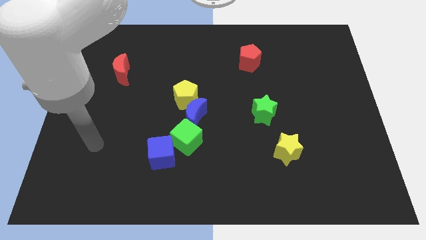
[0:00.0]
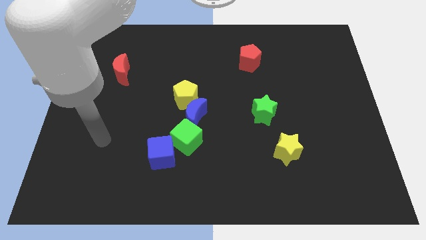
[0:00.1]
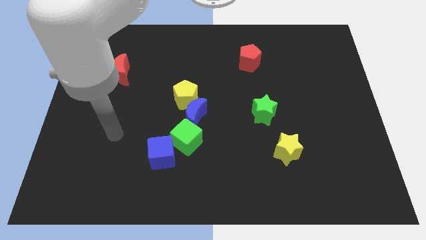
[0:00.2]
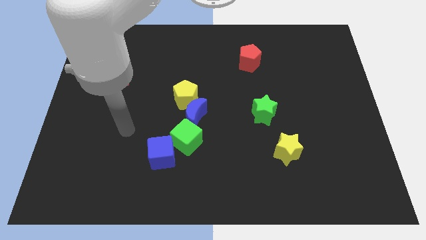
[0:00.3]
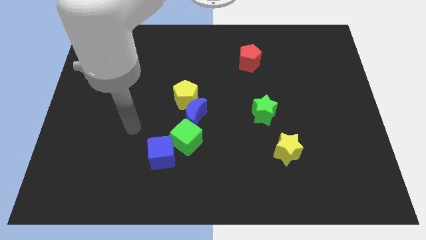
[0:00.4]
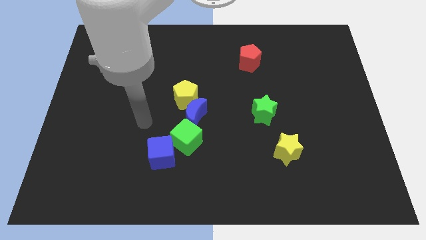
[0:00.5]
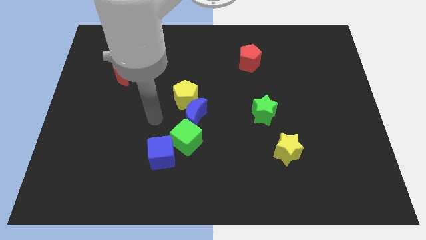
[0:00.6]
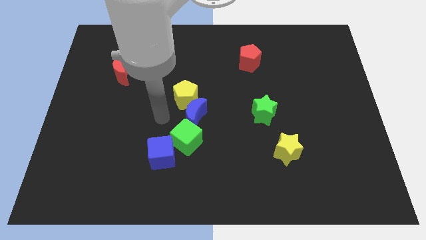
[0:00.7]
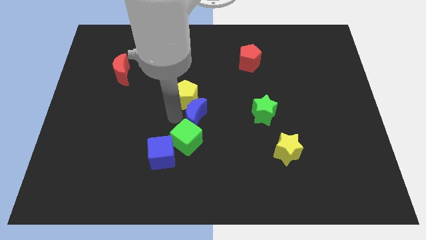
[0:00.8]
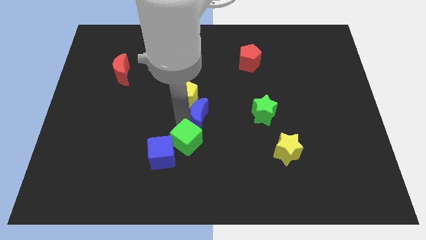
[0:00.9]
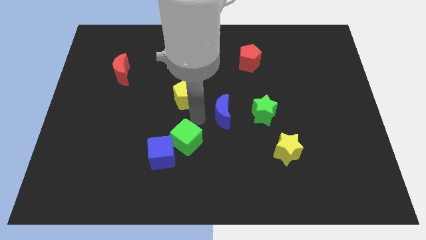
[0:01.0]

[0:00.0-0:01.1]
separate the yellow pentagon from the blue moon

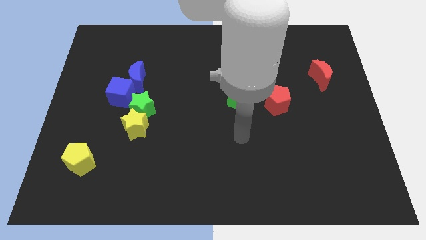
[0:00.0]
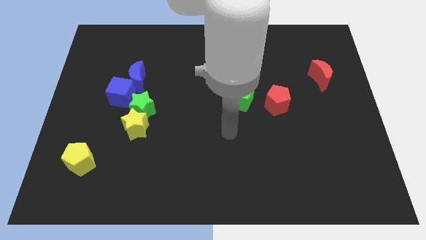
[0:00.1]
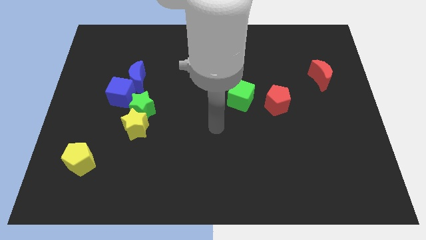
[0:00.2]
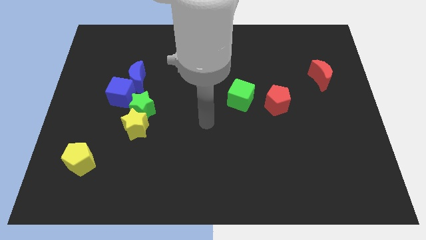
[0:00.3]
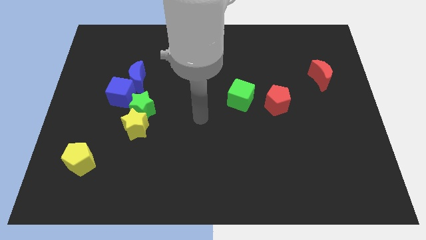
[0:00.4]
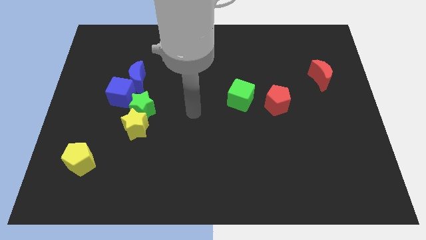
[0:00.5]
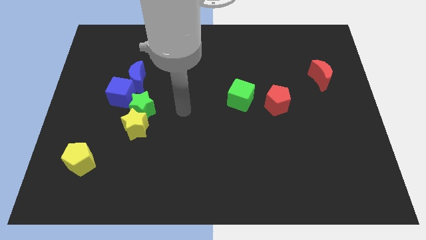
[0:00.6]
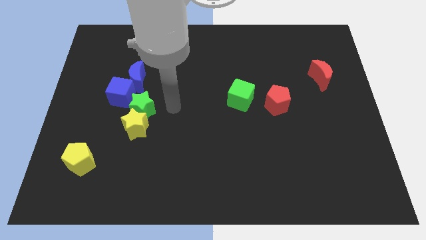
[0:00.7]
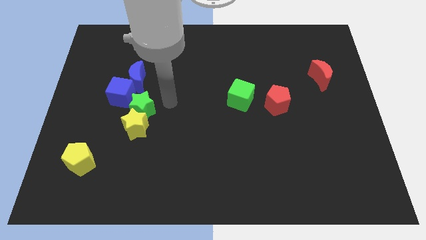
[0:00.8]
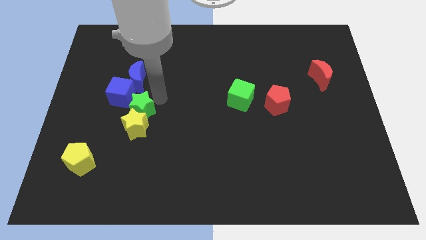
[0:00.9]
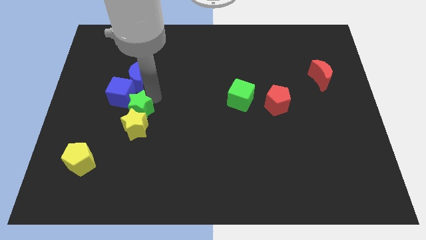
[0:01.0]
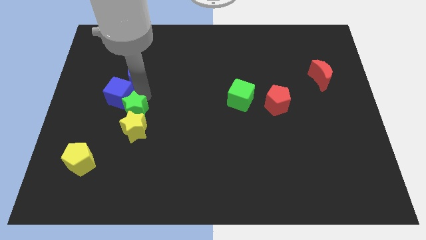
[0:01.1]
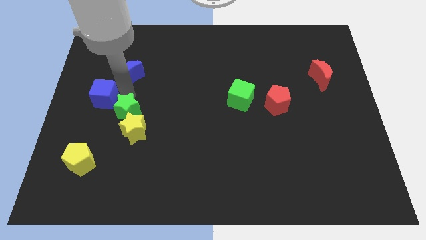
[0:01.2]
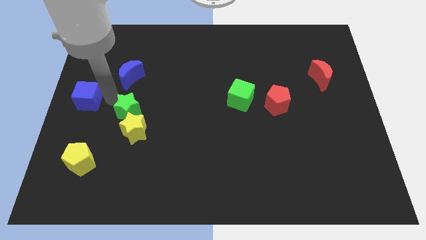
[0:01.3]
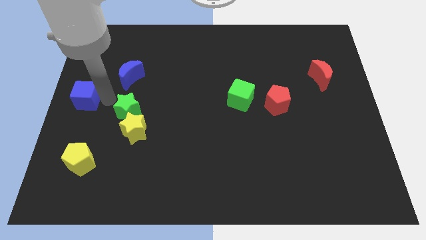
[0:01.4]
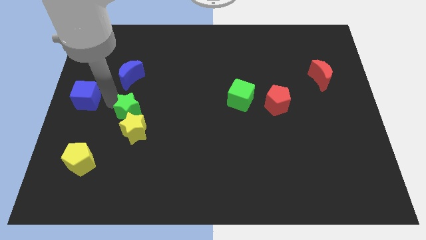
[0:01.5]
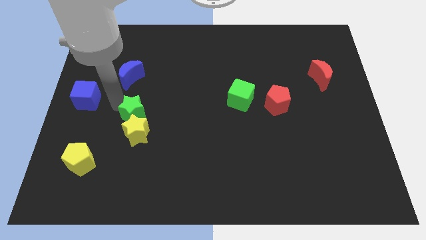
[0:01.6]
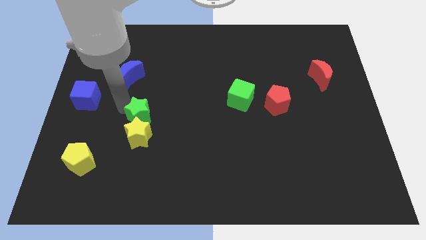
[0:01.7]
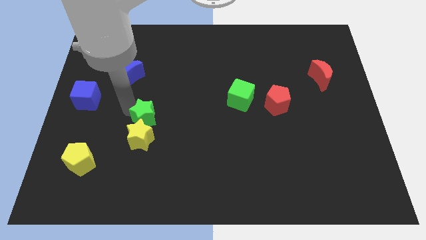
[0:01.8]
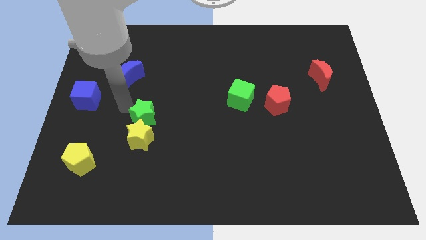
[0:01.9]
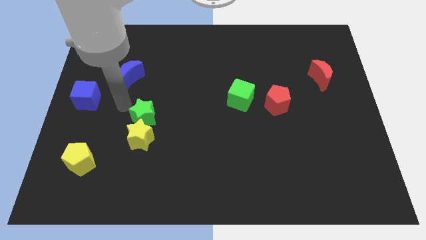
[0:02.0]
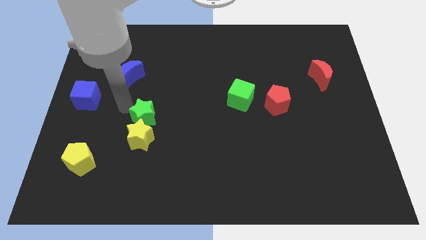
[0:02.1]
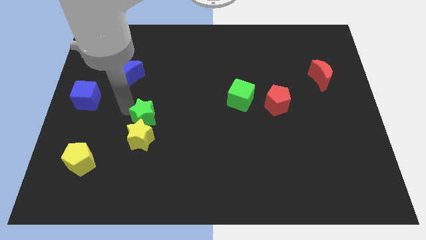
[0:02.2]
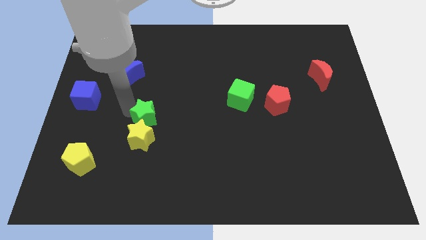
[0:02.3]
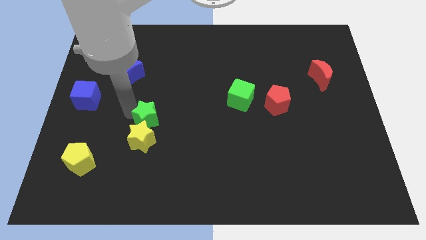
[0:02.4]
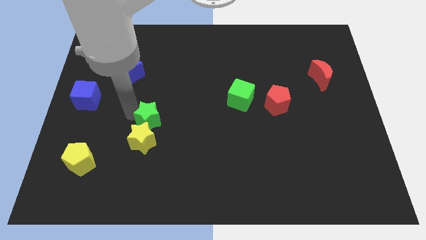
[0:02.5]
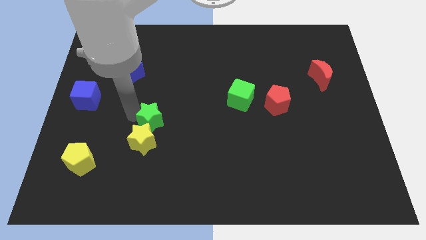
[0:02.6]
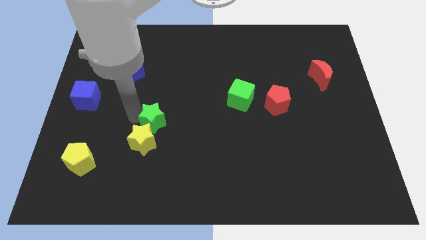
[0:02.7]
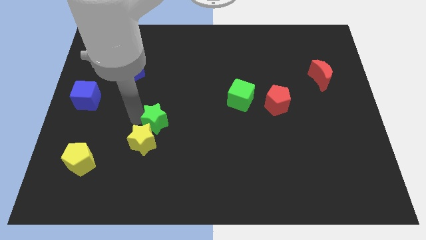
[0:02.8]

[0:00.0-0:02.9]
move the green star away from the yellow star, blue cube, and blue moon

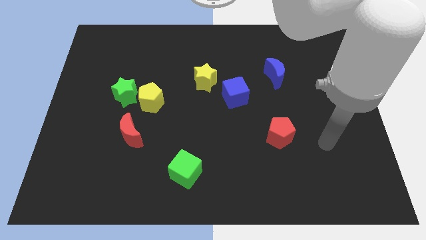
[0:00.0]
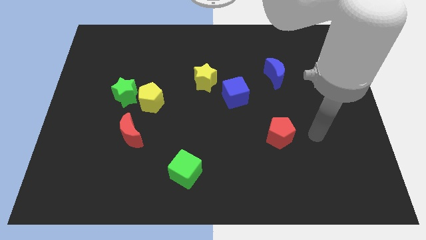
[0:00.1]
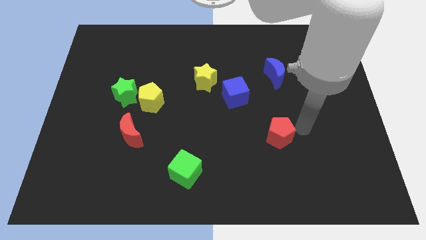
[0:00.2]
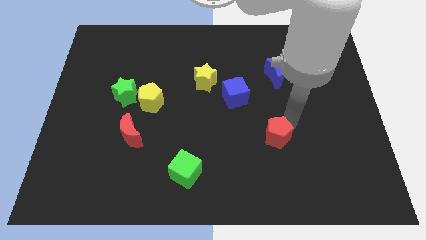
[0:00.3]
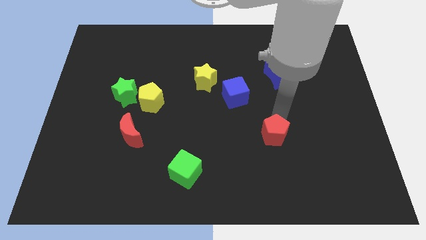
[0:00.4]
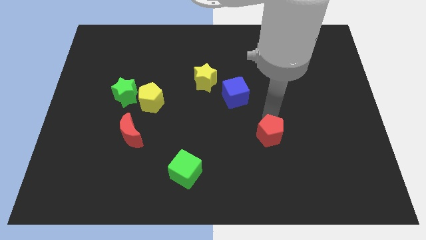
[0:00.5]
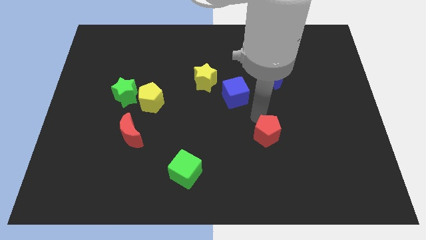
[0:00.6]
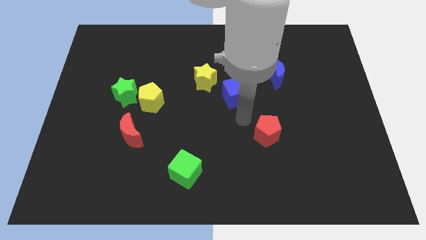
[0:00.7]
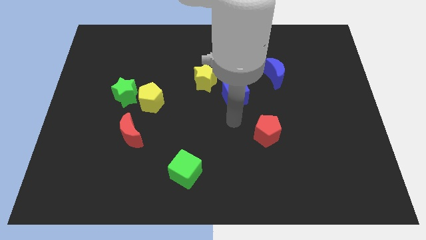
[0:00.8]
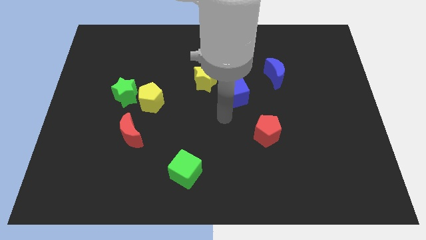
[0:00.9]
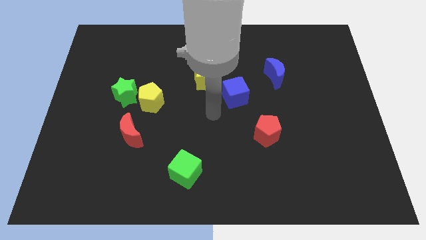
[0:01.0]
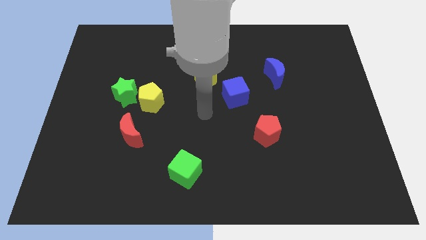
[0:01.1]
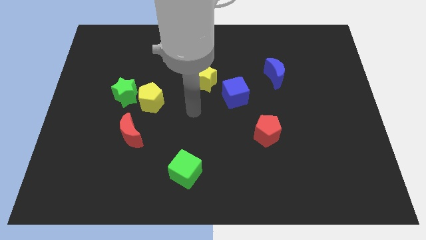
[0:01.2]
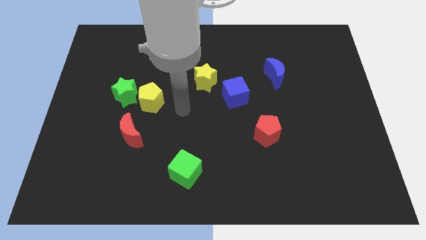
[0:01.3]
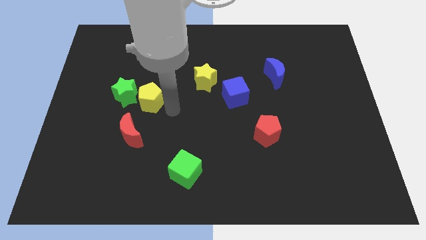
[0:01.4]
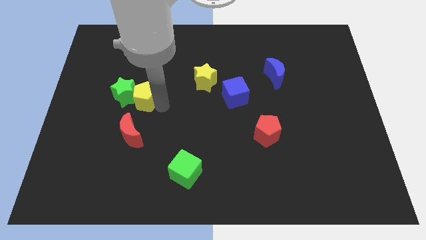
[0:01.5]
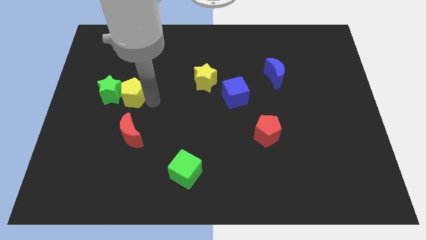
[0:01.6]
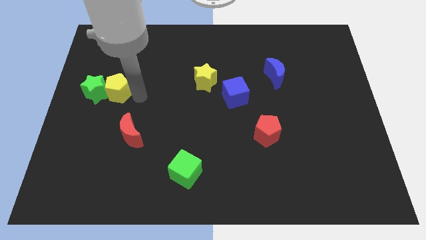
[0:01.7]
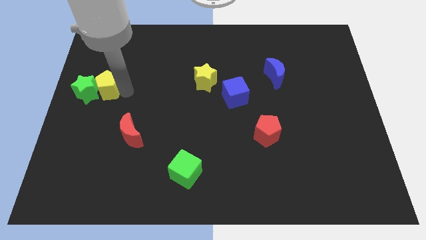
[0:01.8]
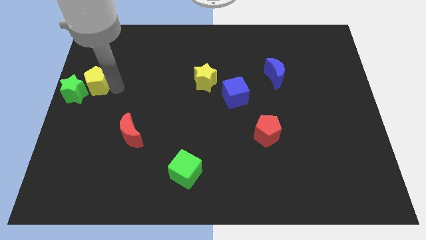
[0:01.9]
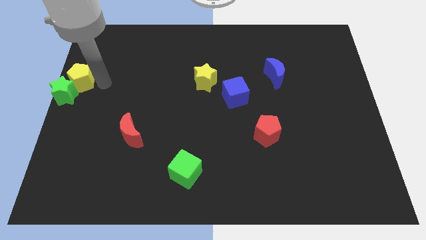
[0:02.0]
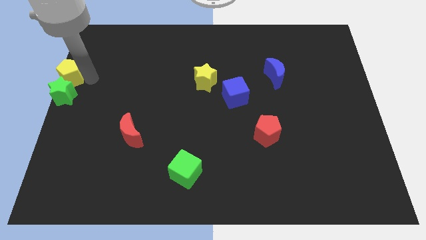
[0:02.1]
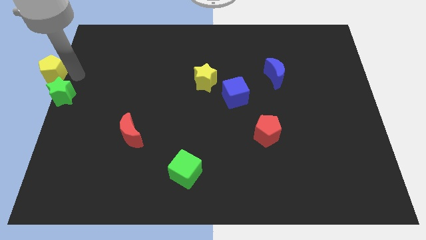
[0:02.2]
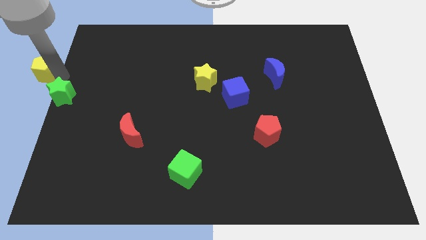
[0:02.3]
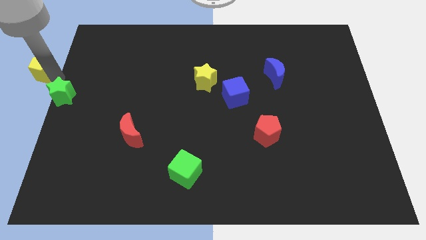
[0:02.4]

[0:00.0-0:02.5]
pull the green star apart from the yellow pentagon

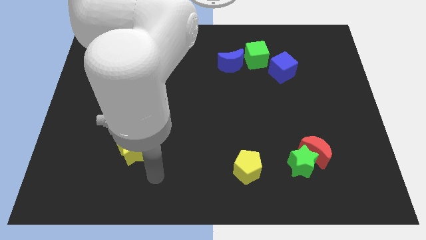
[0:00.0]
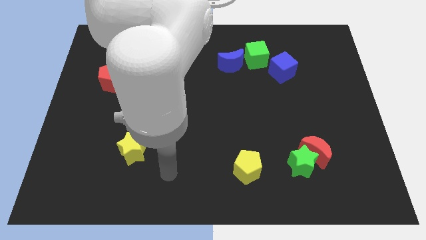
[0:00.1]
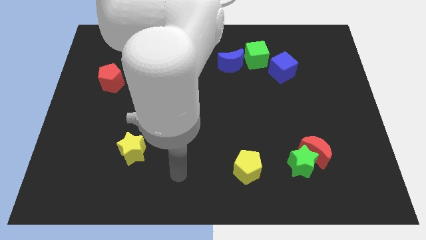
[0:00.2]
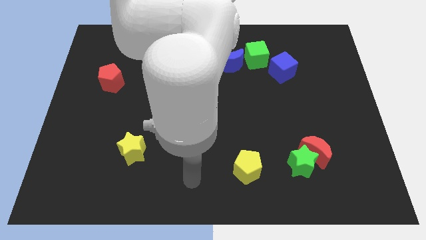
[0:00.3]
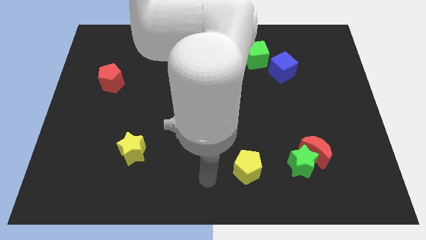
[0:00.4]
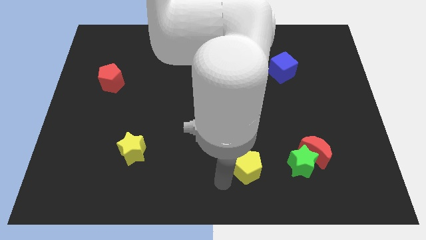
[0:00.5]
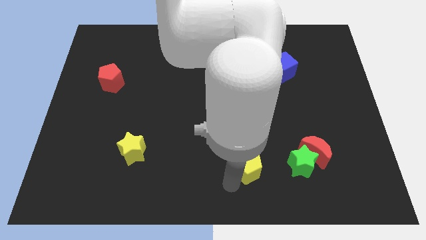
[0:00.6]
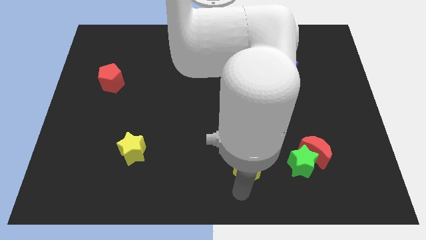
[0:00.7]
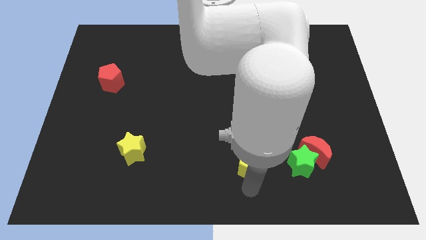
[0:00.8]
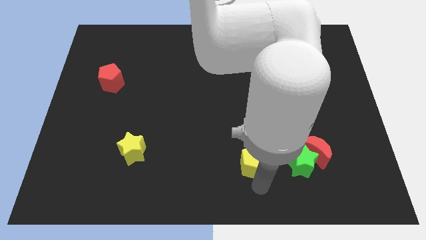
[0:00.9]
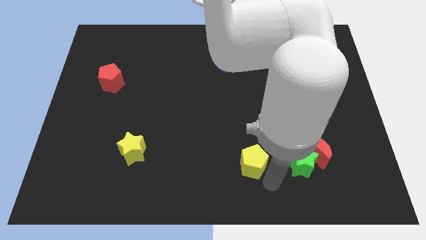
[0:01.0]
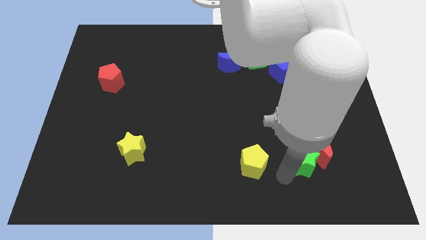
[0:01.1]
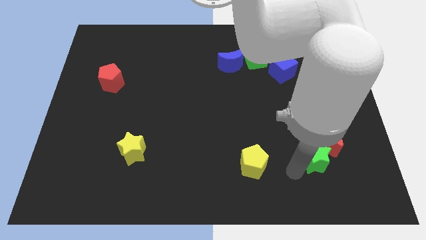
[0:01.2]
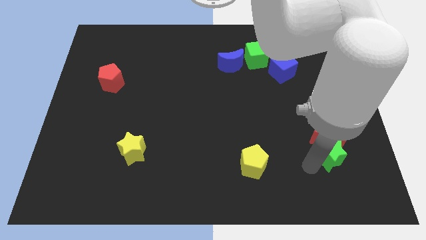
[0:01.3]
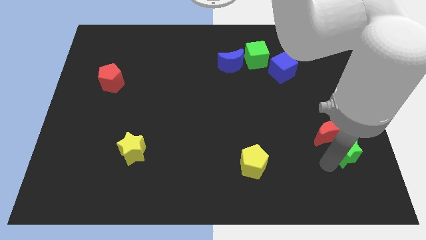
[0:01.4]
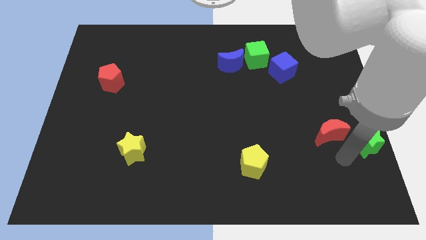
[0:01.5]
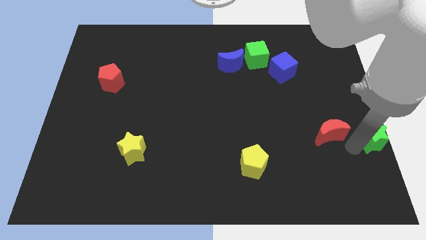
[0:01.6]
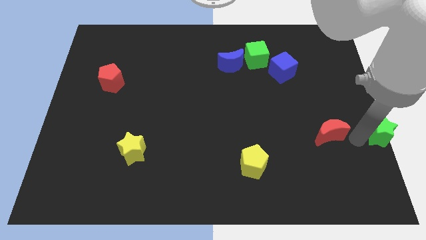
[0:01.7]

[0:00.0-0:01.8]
separate the red moon from the green star

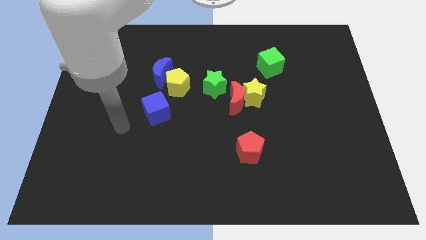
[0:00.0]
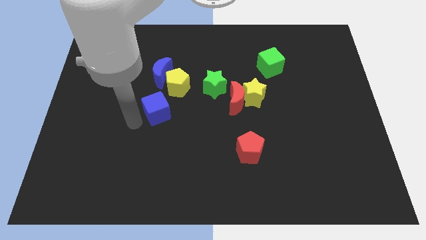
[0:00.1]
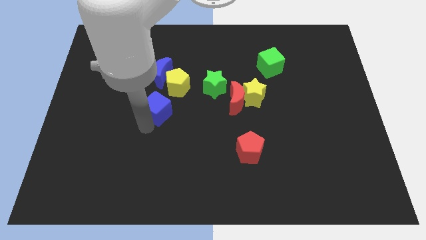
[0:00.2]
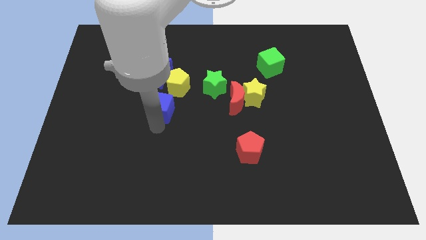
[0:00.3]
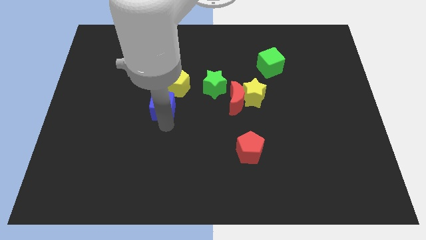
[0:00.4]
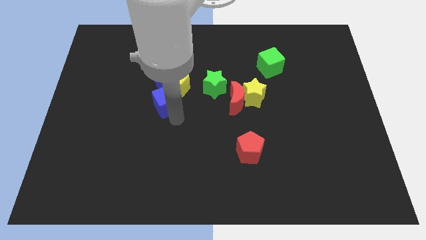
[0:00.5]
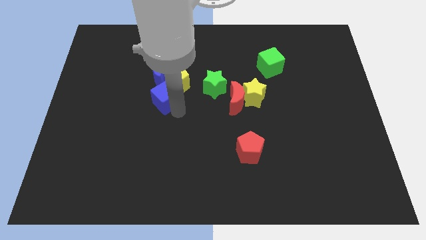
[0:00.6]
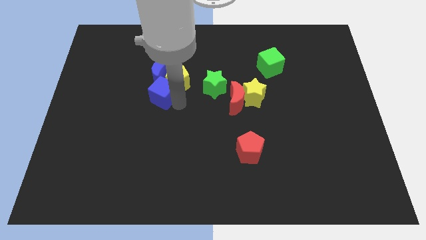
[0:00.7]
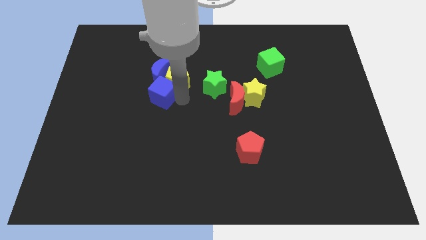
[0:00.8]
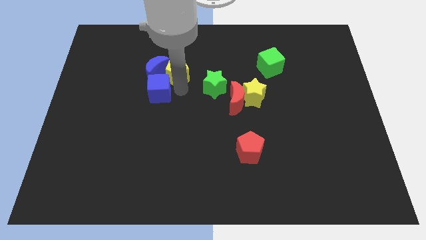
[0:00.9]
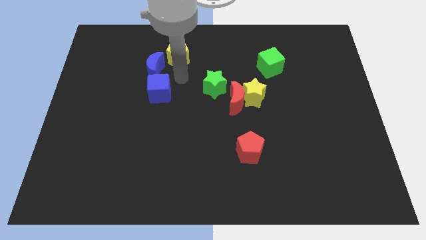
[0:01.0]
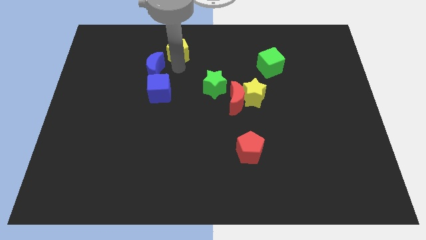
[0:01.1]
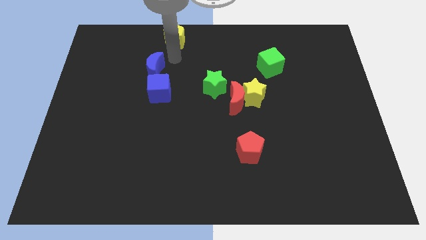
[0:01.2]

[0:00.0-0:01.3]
pull the blue moon apart from the yellow pentagon
